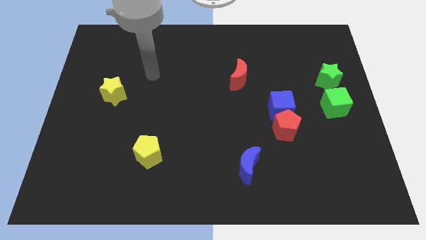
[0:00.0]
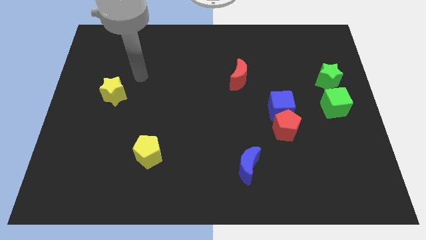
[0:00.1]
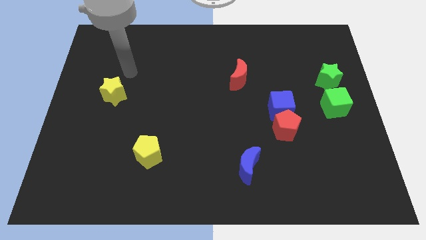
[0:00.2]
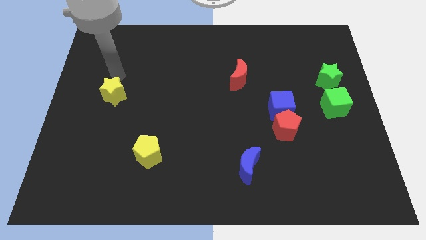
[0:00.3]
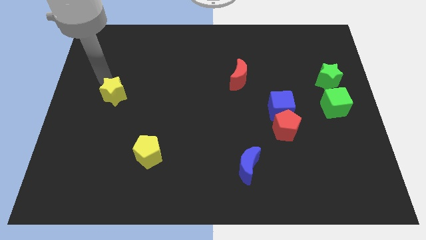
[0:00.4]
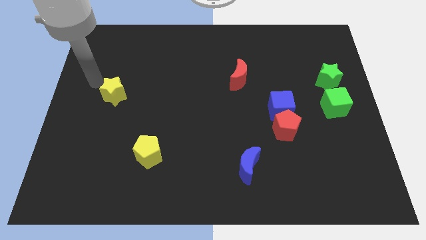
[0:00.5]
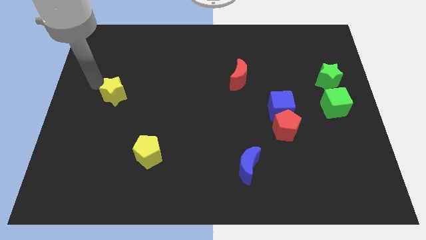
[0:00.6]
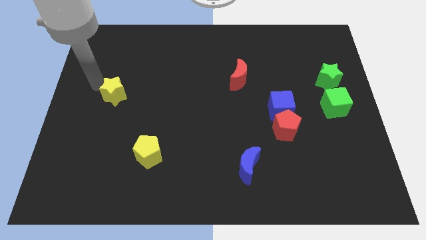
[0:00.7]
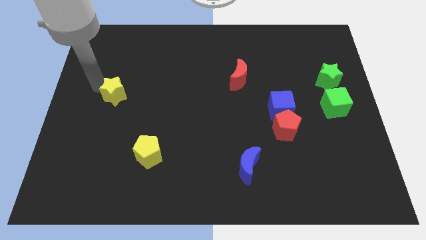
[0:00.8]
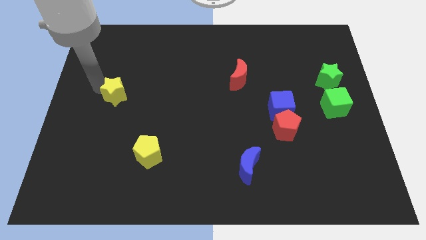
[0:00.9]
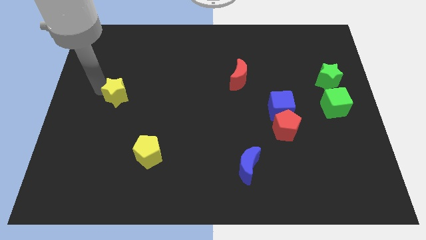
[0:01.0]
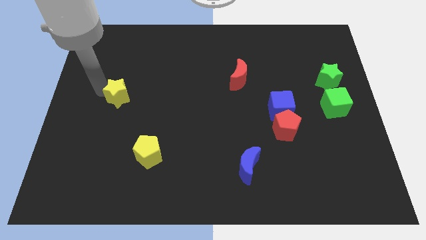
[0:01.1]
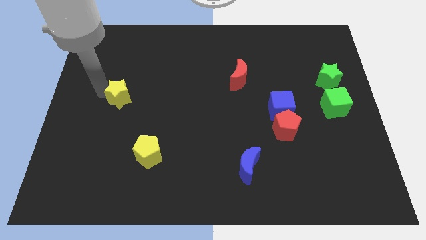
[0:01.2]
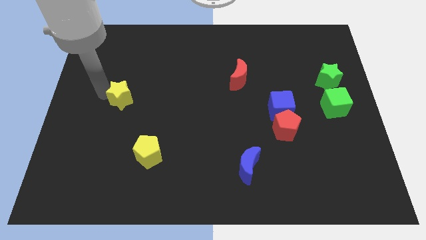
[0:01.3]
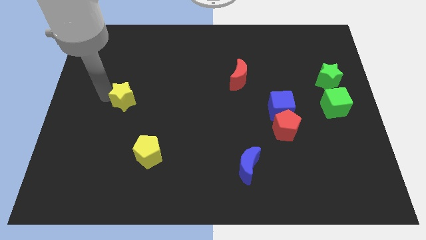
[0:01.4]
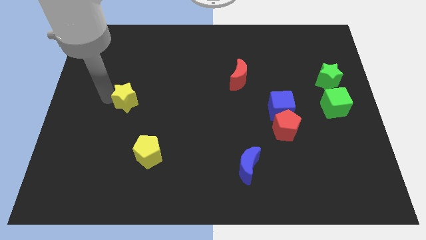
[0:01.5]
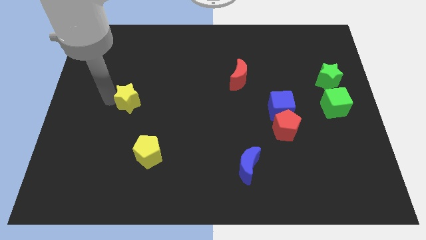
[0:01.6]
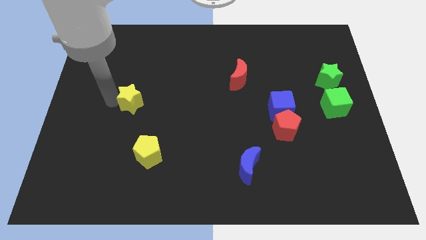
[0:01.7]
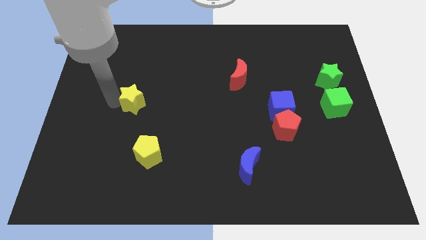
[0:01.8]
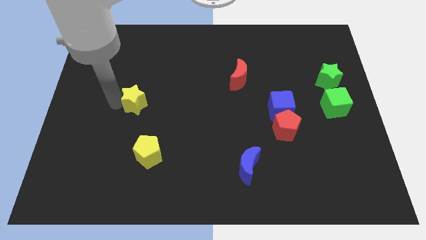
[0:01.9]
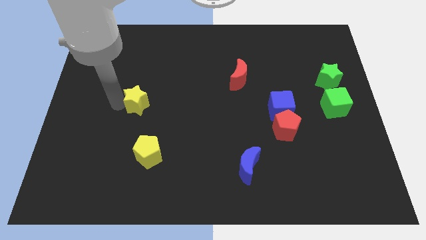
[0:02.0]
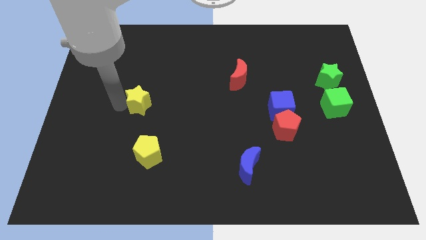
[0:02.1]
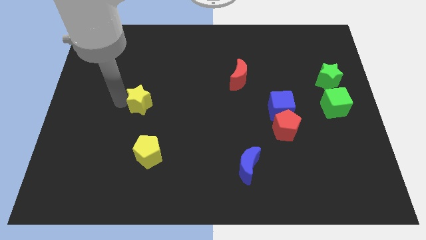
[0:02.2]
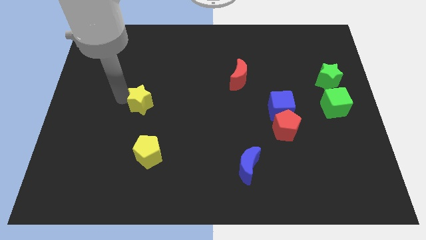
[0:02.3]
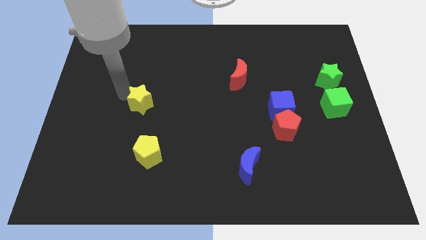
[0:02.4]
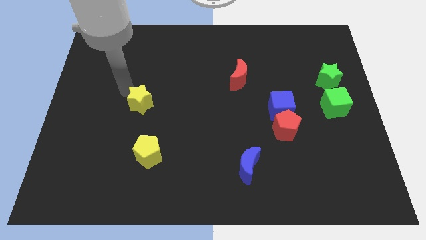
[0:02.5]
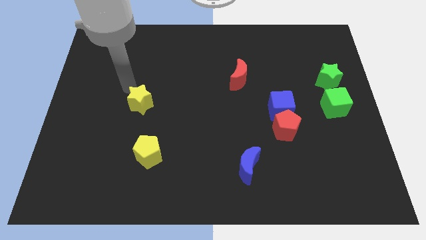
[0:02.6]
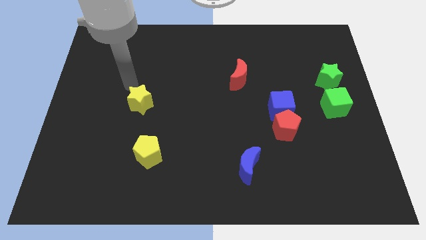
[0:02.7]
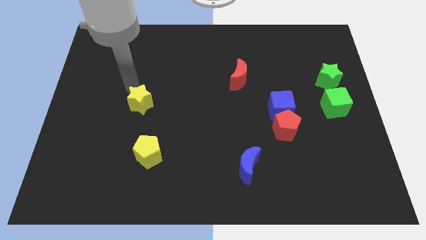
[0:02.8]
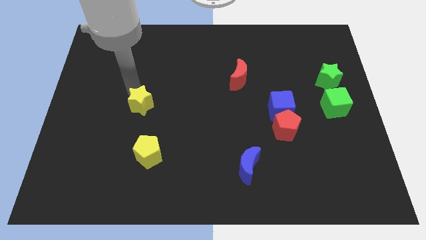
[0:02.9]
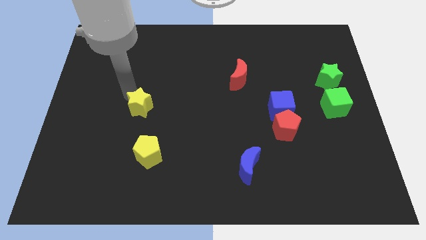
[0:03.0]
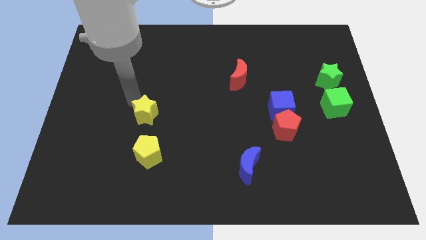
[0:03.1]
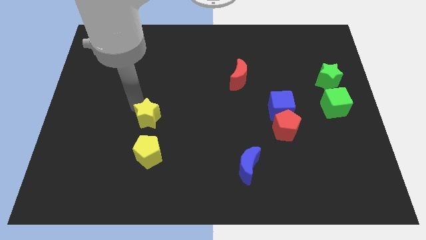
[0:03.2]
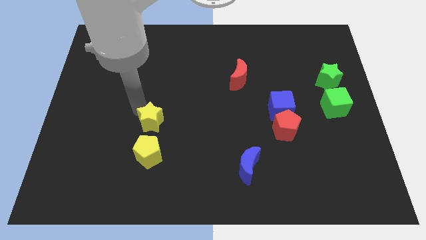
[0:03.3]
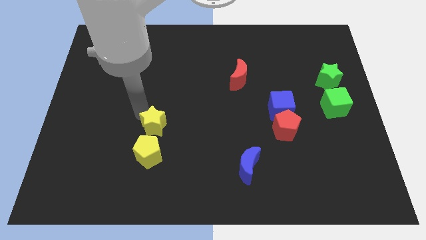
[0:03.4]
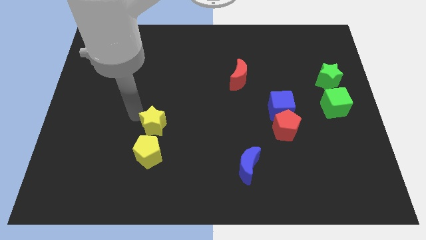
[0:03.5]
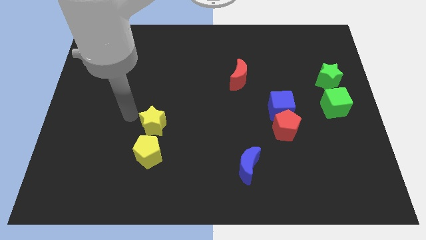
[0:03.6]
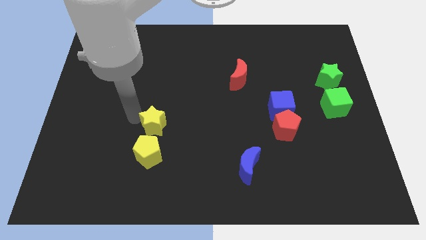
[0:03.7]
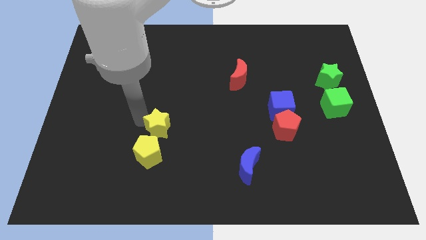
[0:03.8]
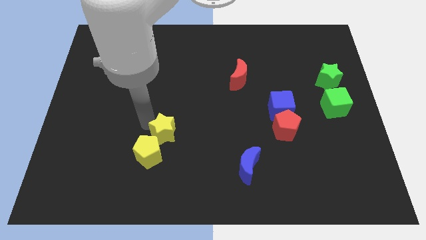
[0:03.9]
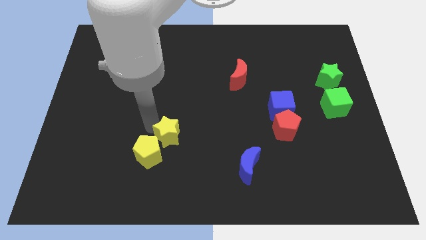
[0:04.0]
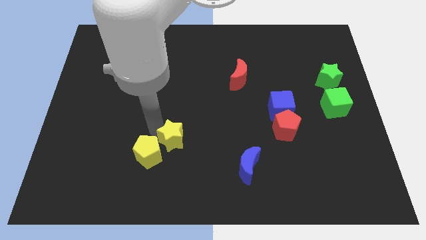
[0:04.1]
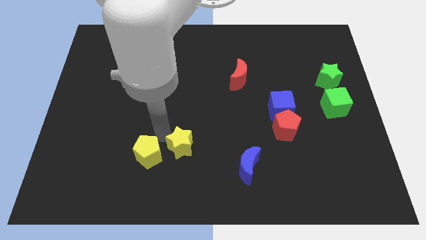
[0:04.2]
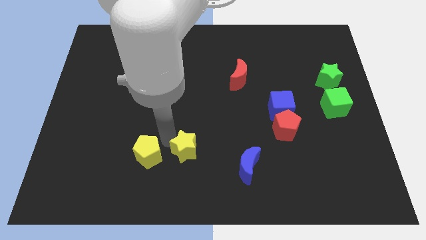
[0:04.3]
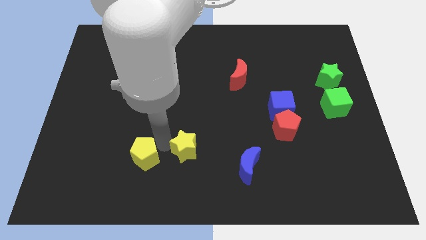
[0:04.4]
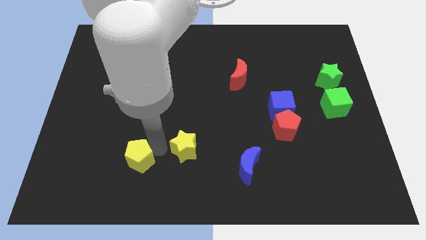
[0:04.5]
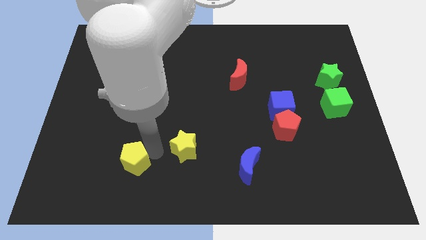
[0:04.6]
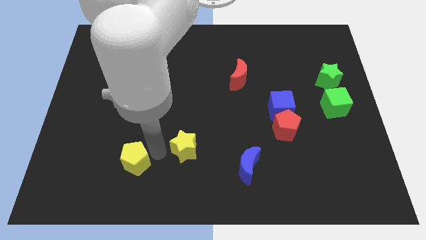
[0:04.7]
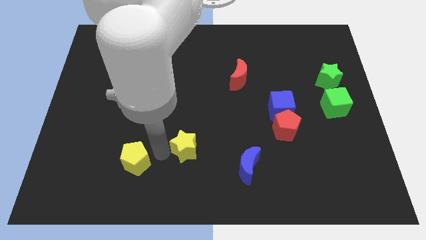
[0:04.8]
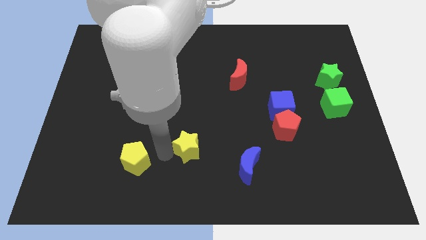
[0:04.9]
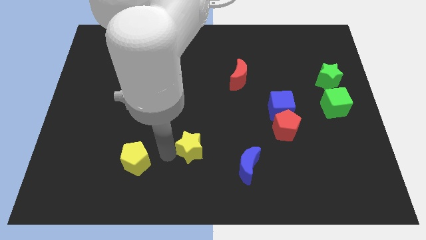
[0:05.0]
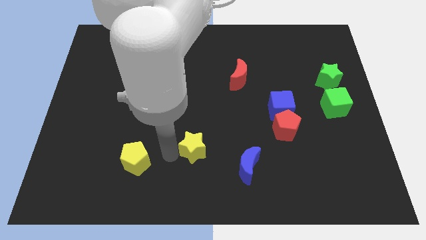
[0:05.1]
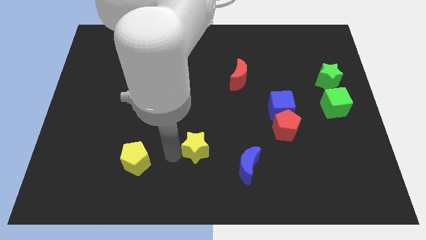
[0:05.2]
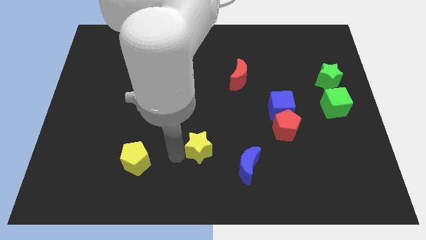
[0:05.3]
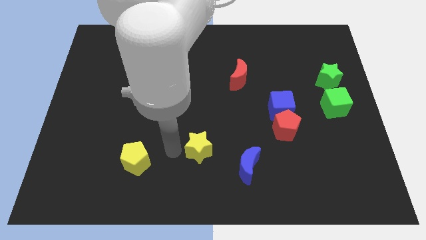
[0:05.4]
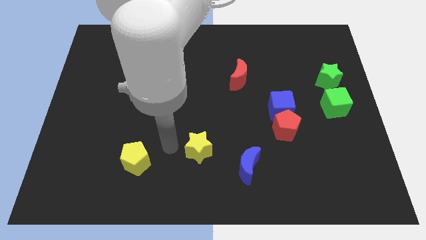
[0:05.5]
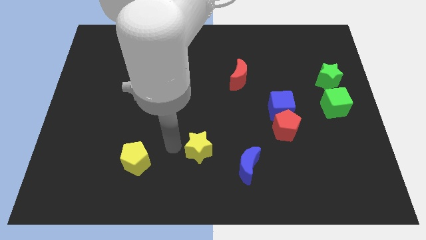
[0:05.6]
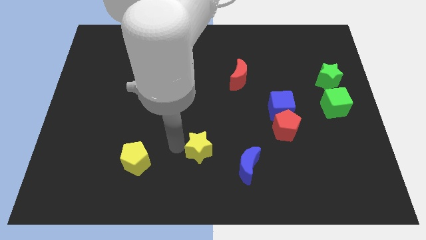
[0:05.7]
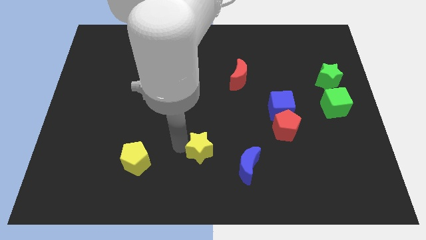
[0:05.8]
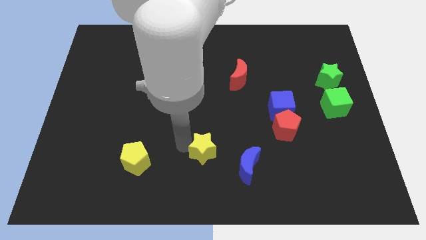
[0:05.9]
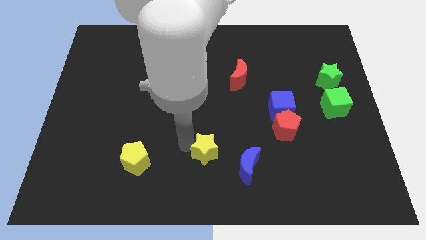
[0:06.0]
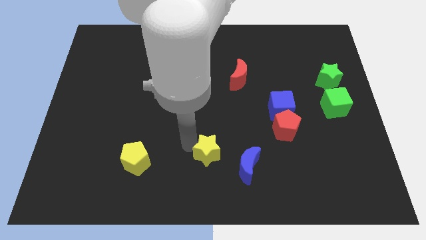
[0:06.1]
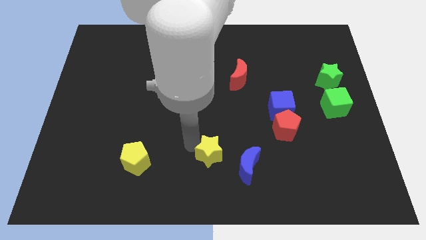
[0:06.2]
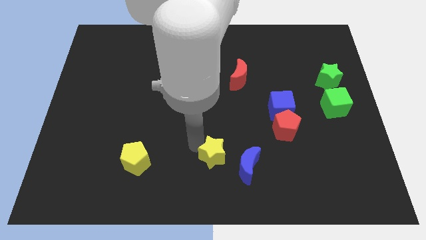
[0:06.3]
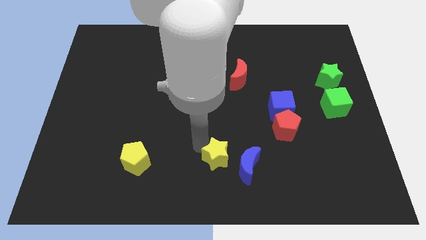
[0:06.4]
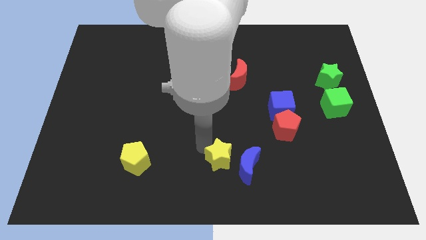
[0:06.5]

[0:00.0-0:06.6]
put the yellow star next to the blue moon

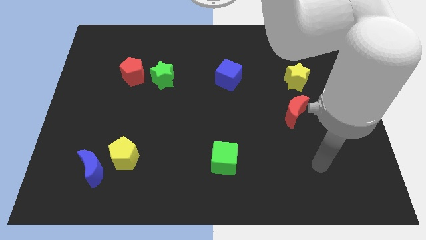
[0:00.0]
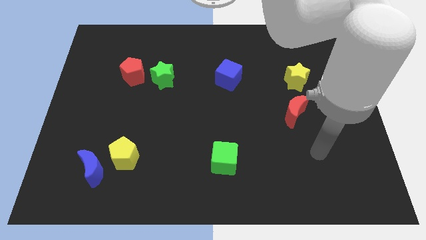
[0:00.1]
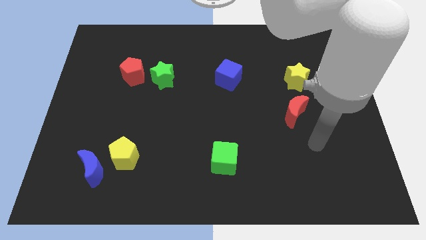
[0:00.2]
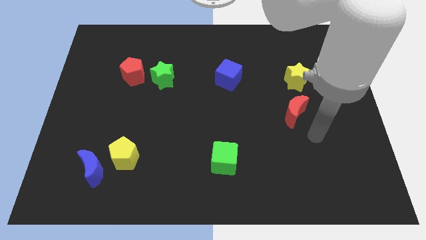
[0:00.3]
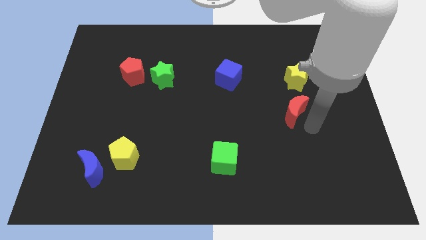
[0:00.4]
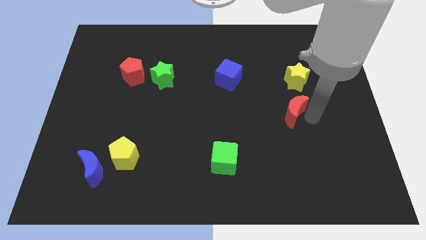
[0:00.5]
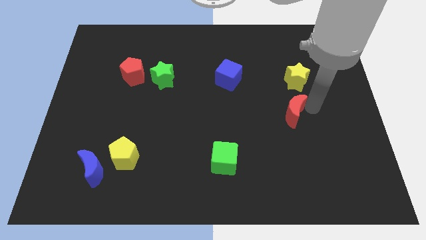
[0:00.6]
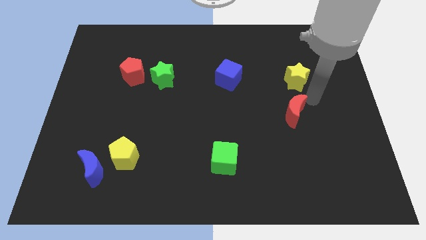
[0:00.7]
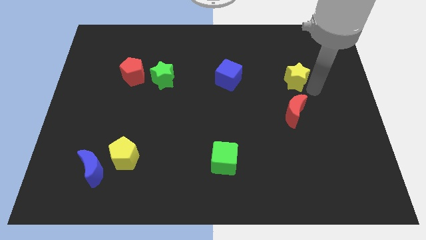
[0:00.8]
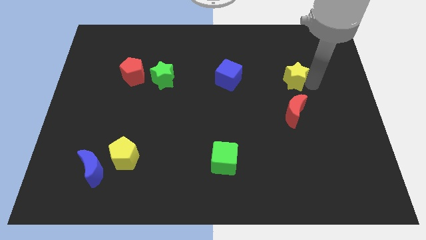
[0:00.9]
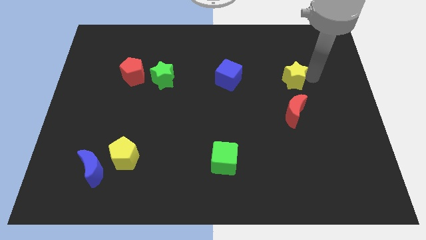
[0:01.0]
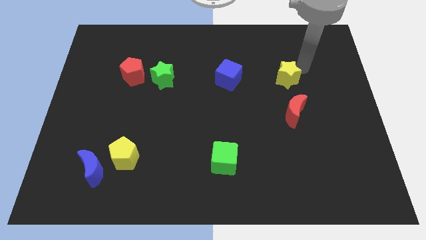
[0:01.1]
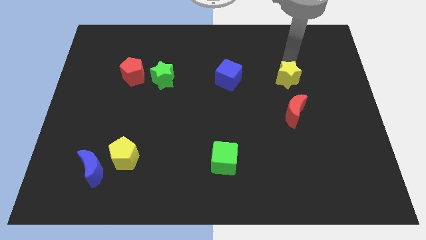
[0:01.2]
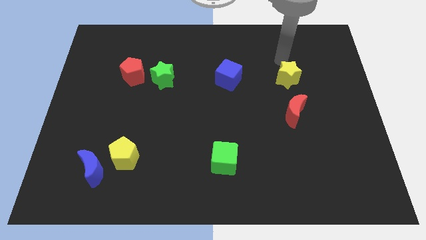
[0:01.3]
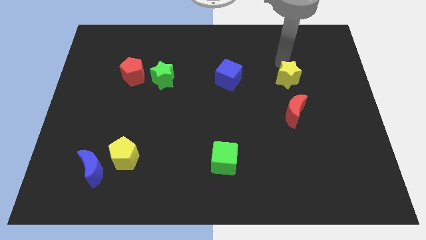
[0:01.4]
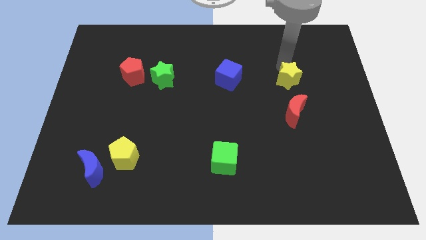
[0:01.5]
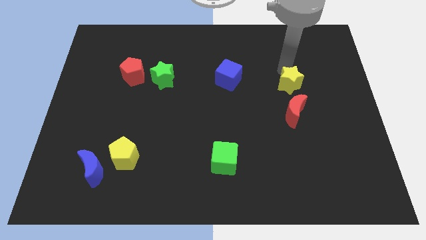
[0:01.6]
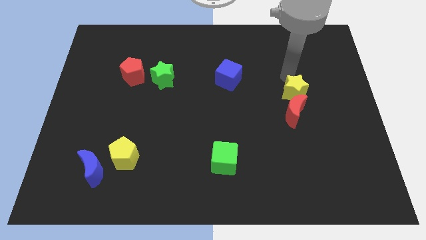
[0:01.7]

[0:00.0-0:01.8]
move the yellow star close to the red moon
